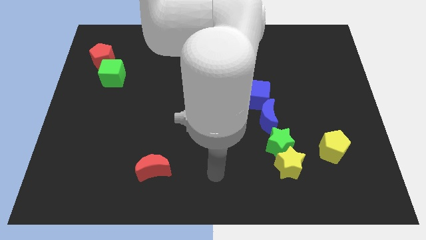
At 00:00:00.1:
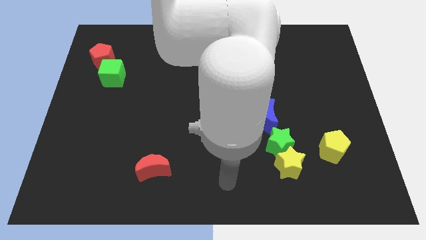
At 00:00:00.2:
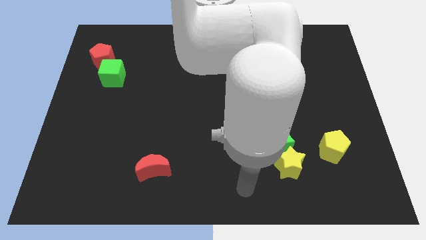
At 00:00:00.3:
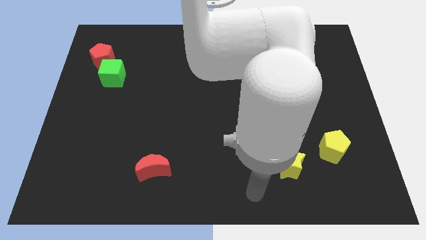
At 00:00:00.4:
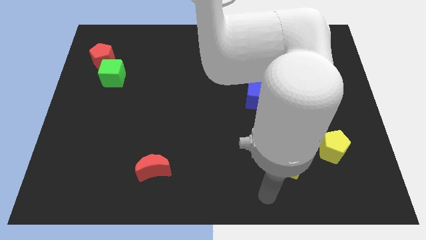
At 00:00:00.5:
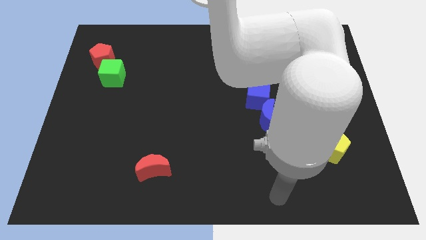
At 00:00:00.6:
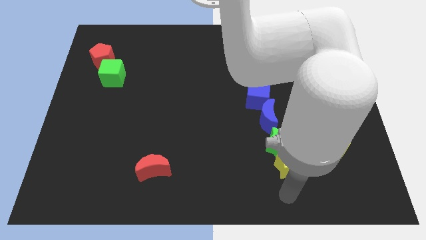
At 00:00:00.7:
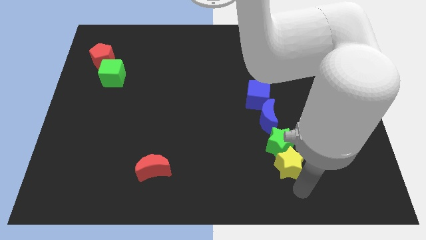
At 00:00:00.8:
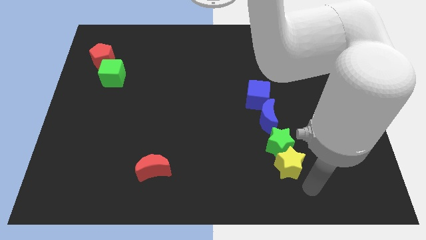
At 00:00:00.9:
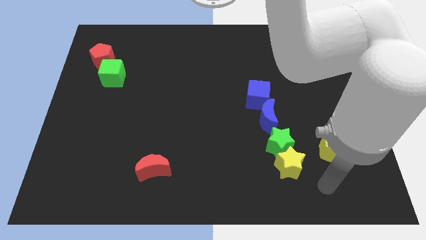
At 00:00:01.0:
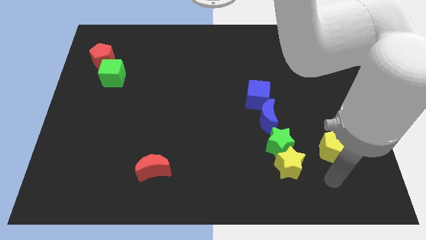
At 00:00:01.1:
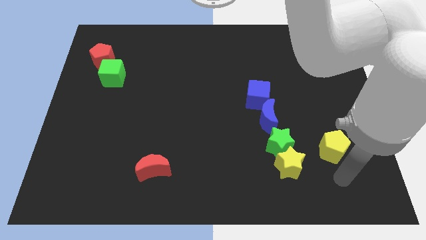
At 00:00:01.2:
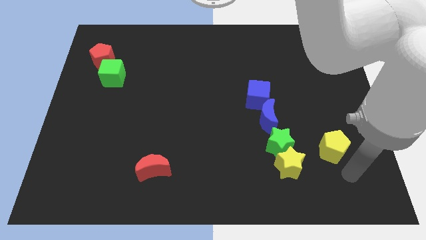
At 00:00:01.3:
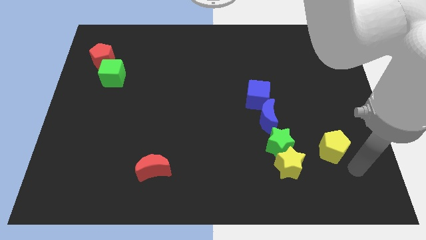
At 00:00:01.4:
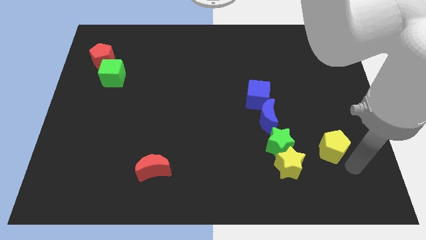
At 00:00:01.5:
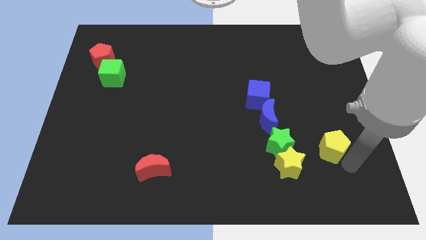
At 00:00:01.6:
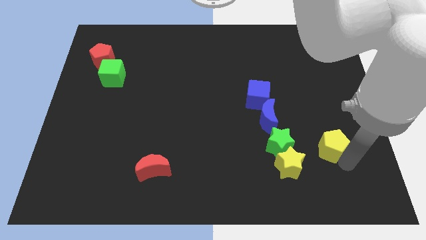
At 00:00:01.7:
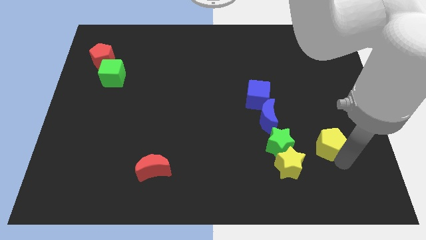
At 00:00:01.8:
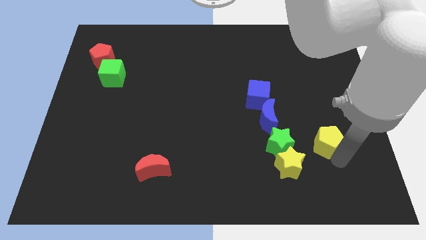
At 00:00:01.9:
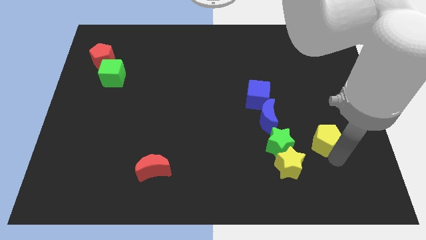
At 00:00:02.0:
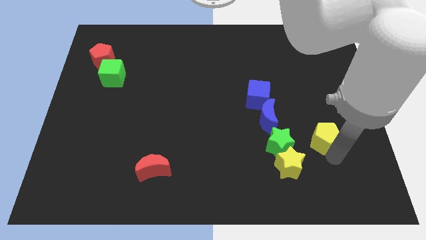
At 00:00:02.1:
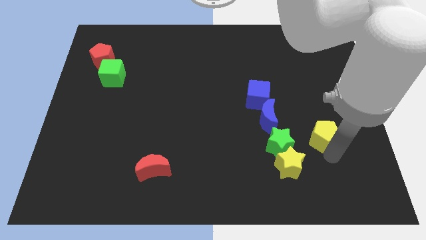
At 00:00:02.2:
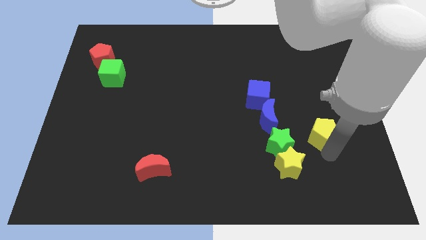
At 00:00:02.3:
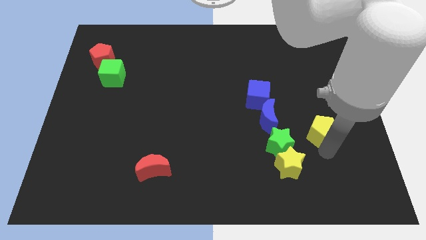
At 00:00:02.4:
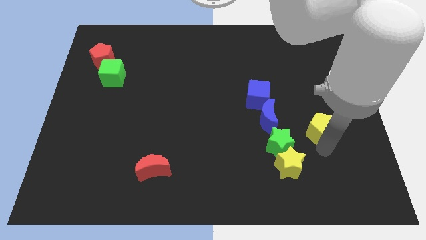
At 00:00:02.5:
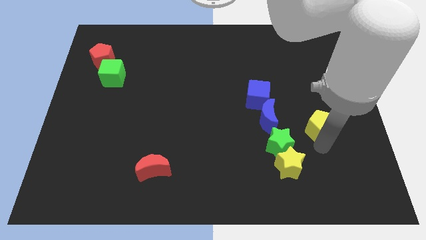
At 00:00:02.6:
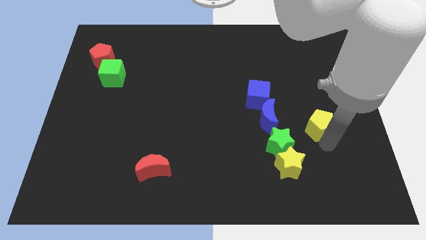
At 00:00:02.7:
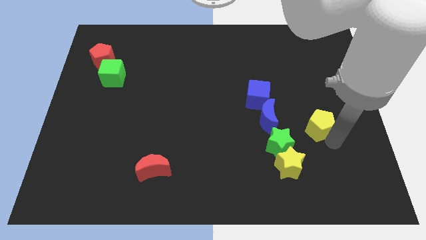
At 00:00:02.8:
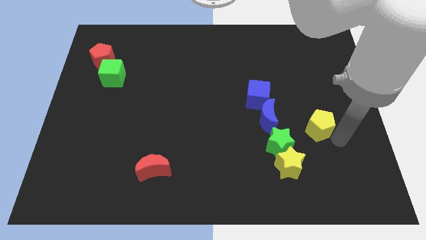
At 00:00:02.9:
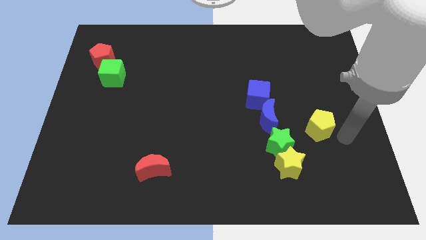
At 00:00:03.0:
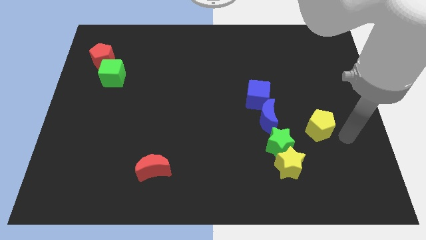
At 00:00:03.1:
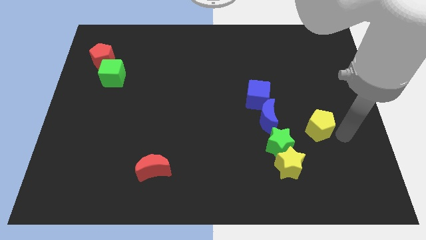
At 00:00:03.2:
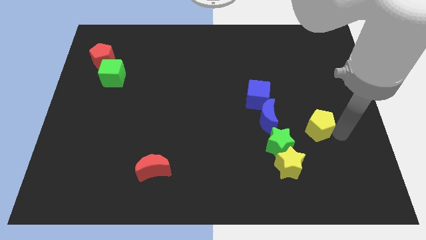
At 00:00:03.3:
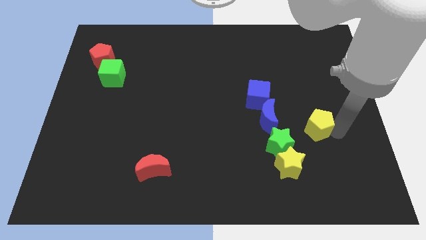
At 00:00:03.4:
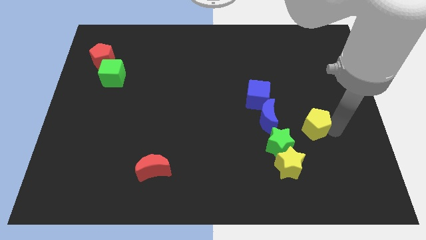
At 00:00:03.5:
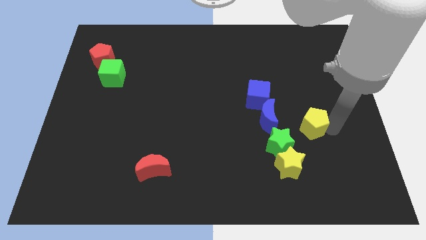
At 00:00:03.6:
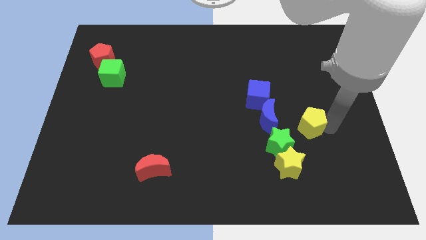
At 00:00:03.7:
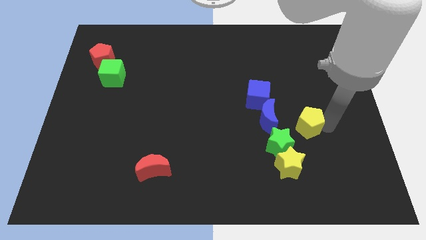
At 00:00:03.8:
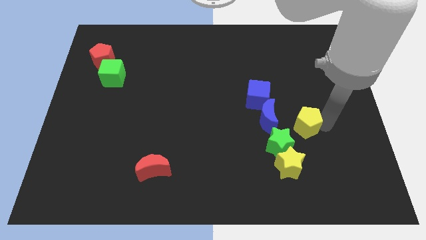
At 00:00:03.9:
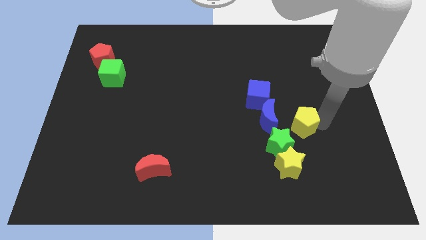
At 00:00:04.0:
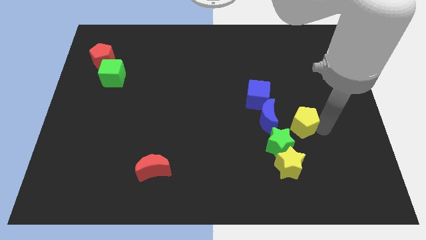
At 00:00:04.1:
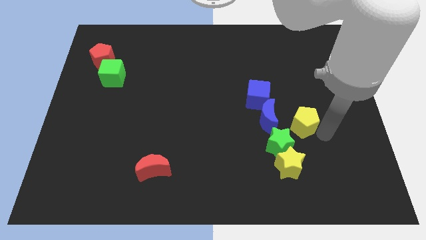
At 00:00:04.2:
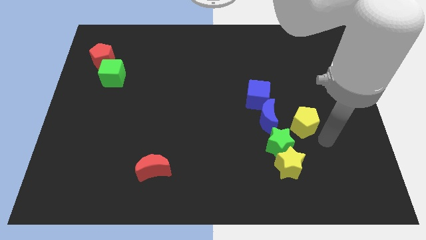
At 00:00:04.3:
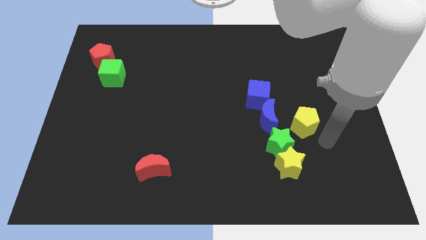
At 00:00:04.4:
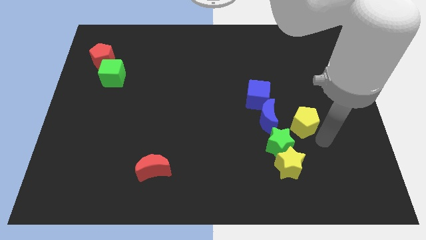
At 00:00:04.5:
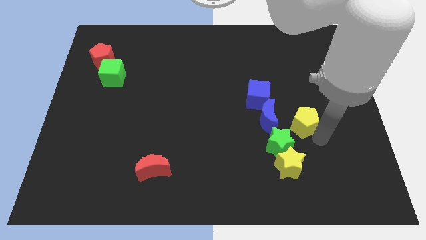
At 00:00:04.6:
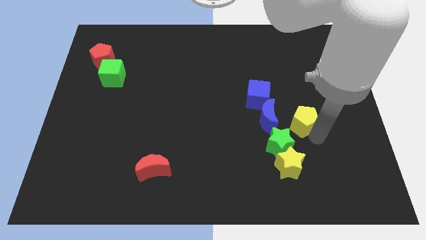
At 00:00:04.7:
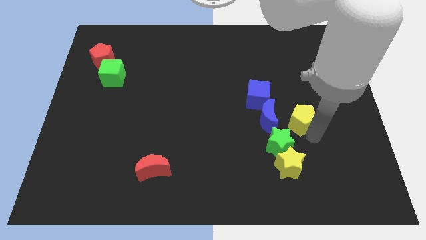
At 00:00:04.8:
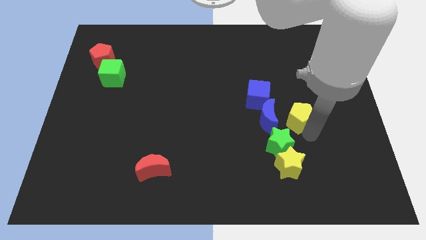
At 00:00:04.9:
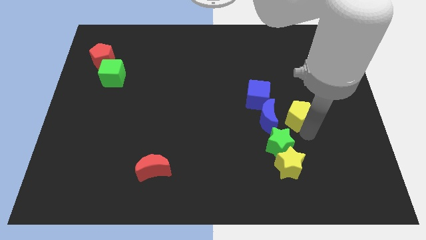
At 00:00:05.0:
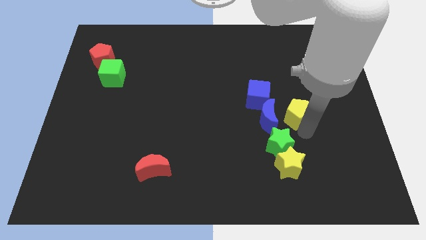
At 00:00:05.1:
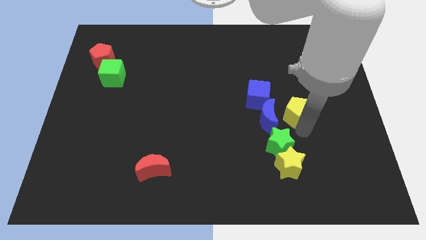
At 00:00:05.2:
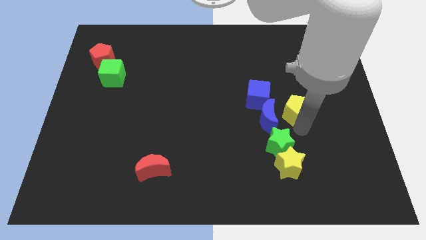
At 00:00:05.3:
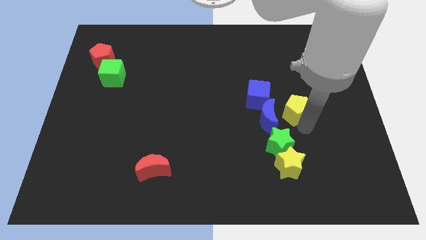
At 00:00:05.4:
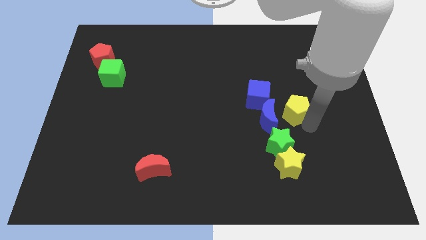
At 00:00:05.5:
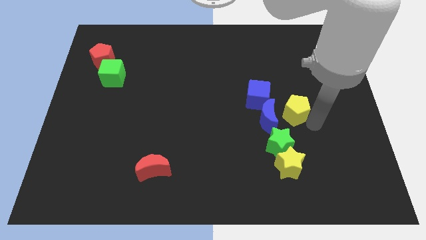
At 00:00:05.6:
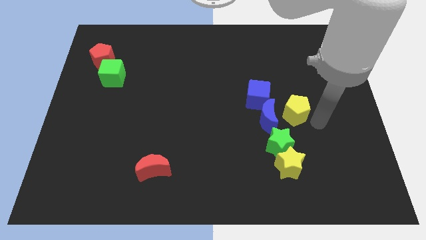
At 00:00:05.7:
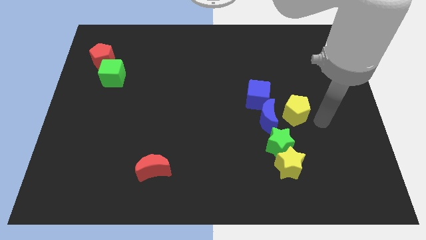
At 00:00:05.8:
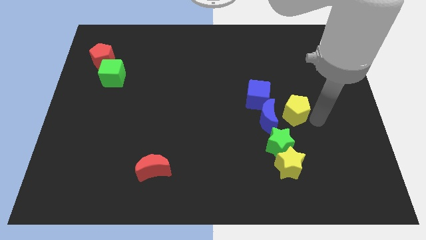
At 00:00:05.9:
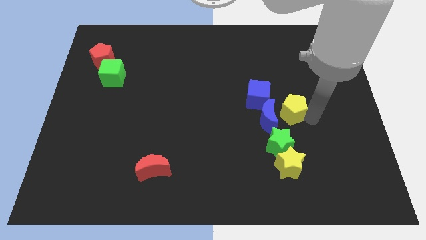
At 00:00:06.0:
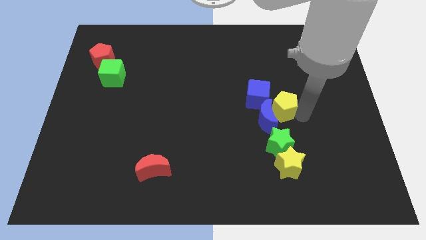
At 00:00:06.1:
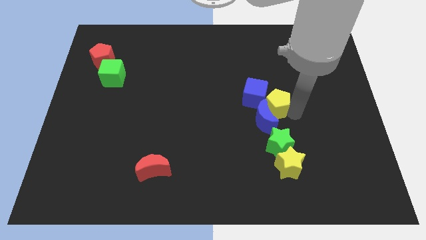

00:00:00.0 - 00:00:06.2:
push the yellow pentagon to the blue cube
